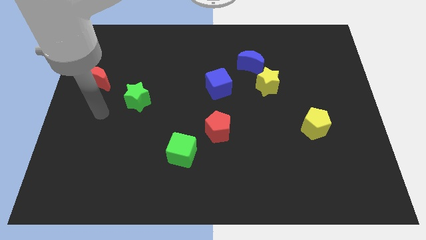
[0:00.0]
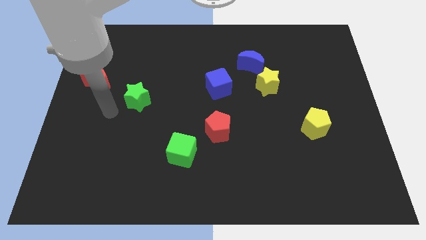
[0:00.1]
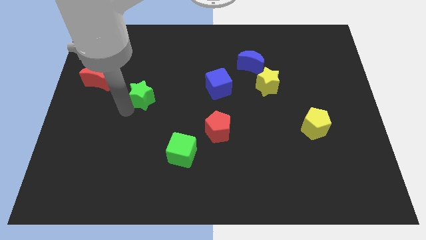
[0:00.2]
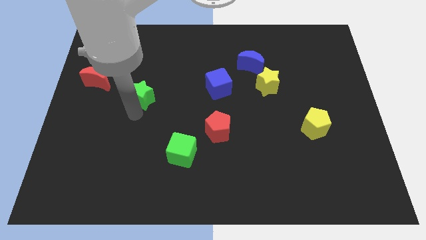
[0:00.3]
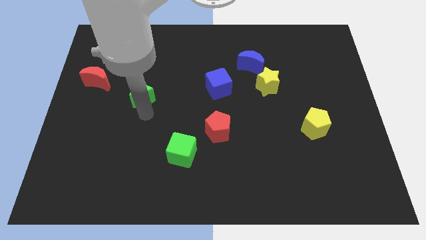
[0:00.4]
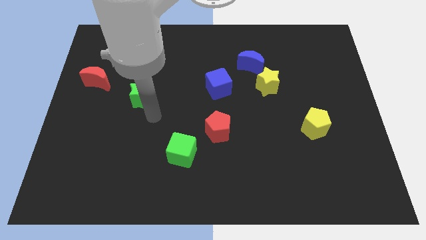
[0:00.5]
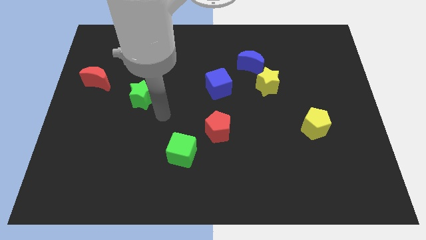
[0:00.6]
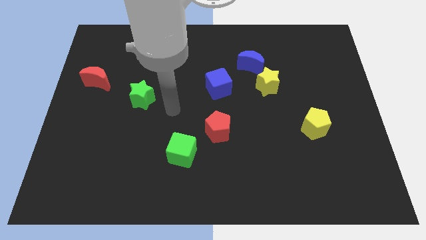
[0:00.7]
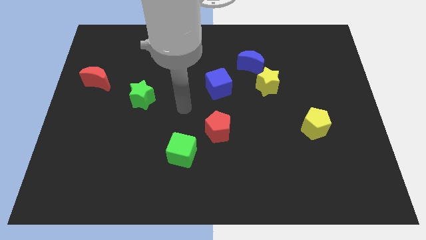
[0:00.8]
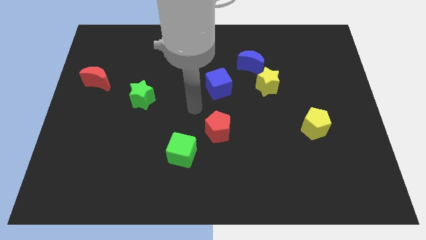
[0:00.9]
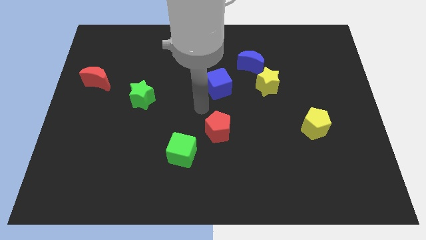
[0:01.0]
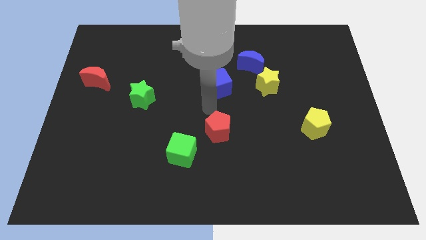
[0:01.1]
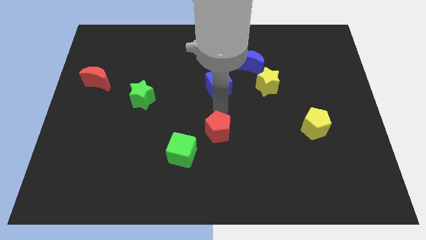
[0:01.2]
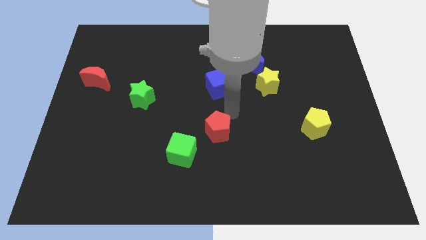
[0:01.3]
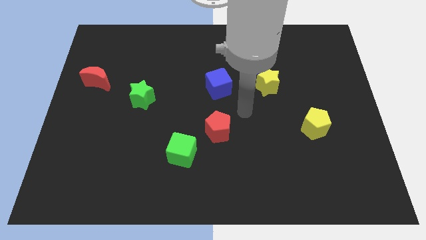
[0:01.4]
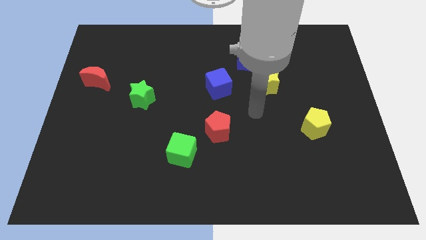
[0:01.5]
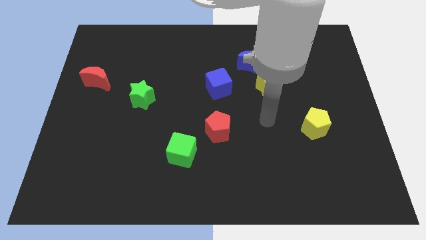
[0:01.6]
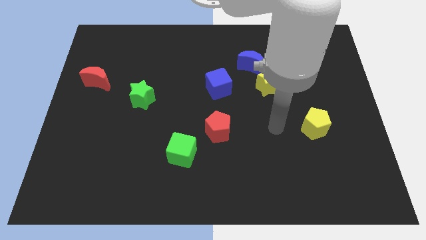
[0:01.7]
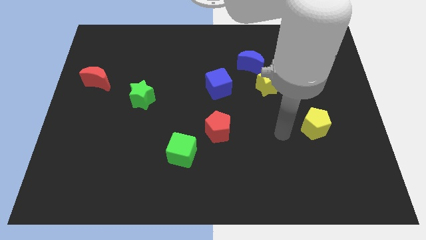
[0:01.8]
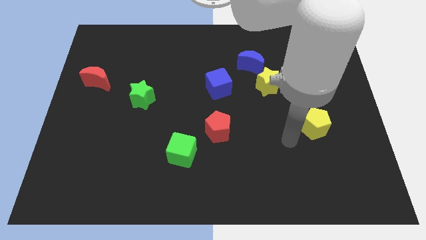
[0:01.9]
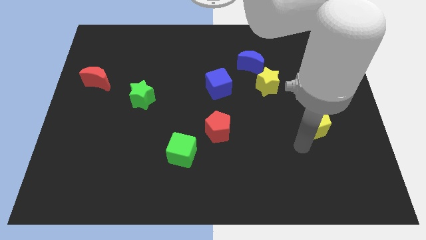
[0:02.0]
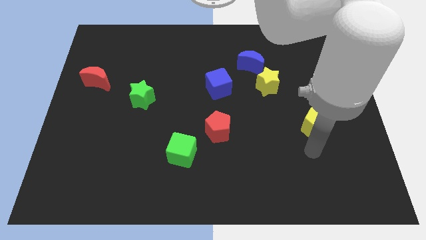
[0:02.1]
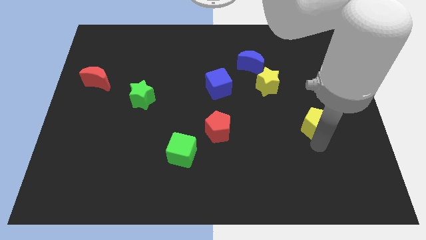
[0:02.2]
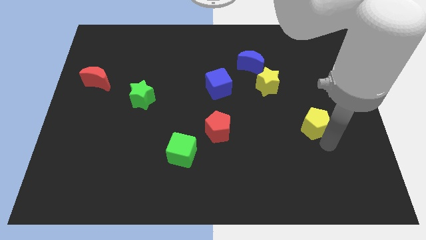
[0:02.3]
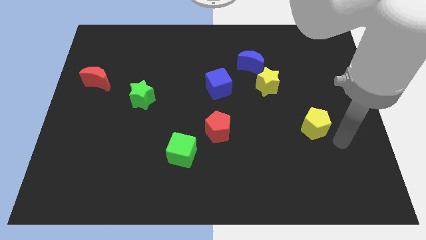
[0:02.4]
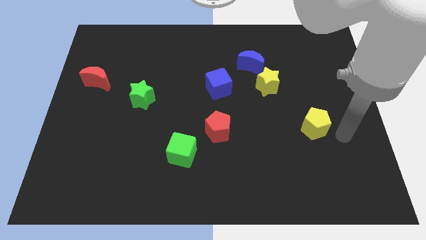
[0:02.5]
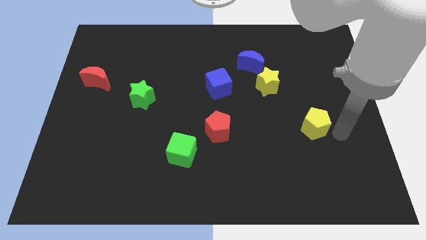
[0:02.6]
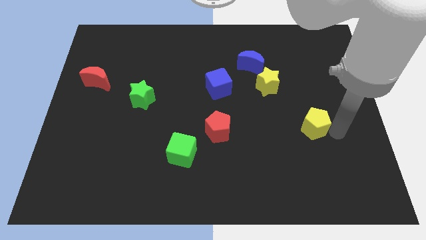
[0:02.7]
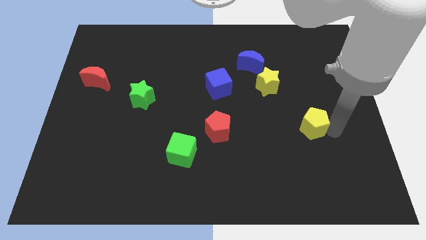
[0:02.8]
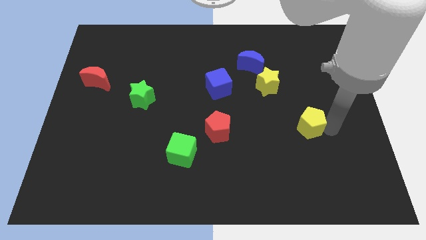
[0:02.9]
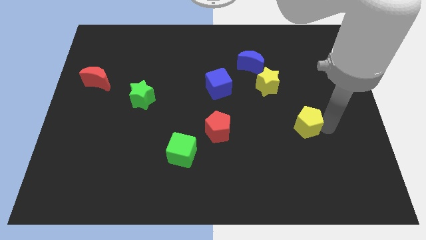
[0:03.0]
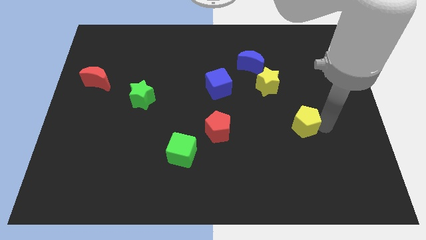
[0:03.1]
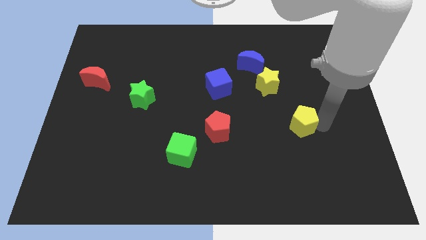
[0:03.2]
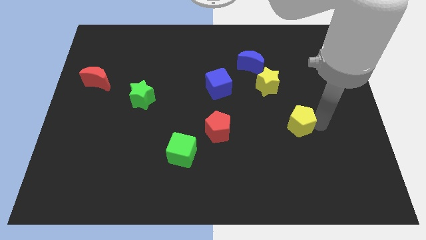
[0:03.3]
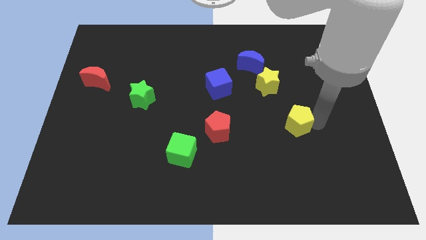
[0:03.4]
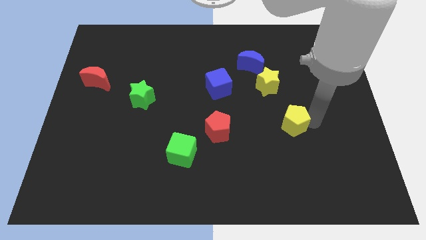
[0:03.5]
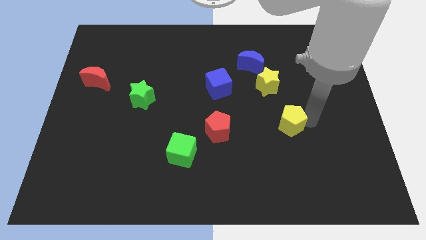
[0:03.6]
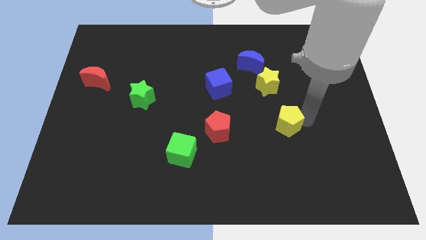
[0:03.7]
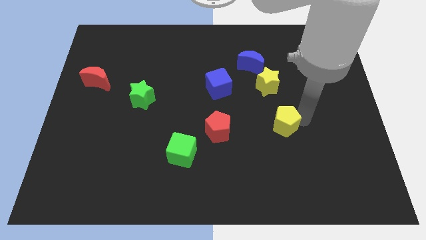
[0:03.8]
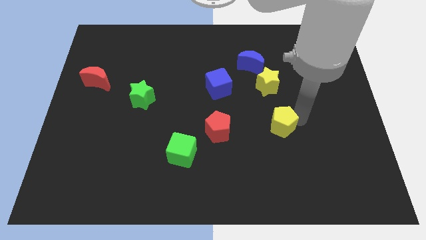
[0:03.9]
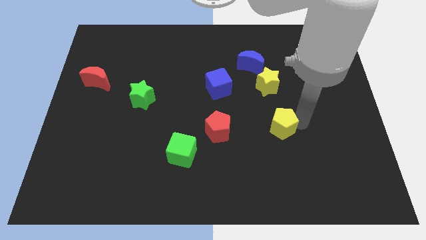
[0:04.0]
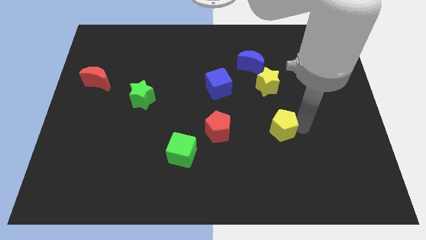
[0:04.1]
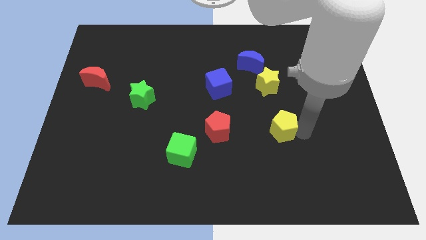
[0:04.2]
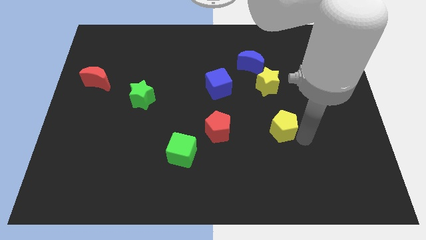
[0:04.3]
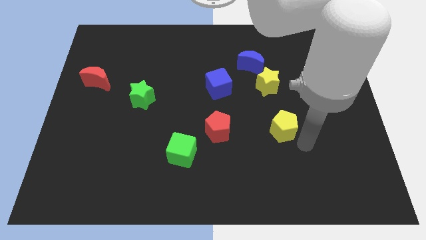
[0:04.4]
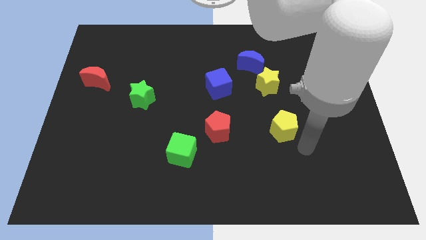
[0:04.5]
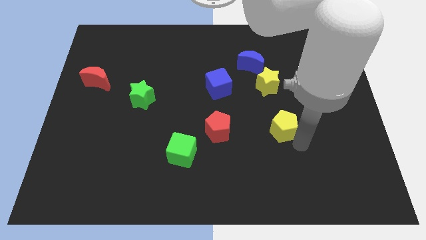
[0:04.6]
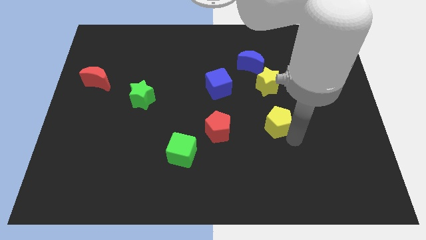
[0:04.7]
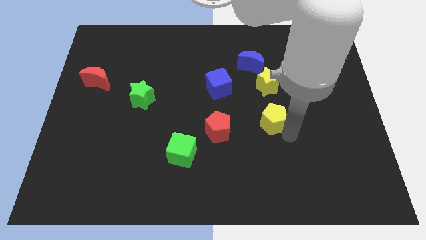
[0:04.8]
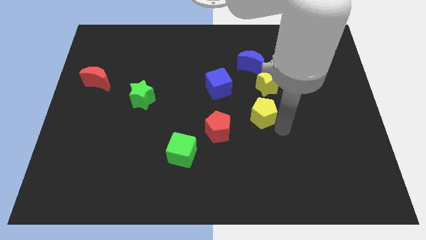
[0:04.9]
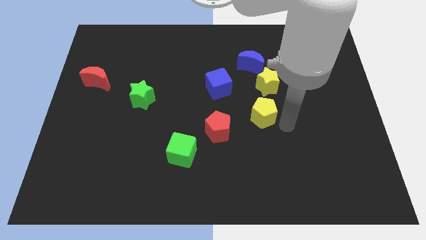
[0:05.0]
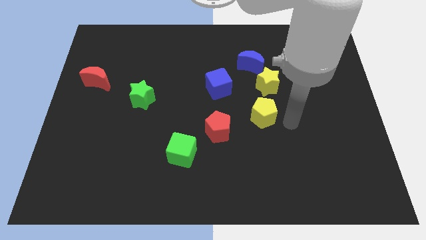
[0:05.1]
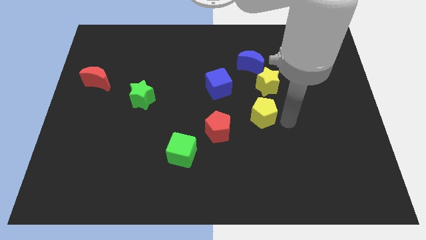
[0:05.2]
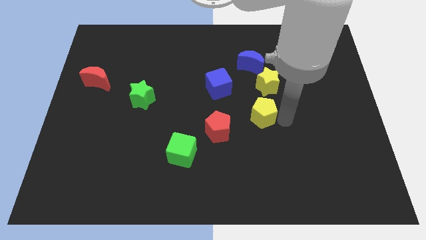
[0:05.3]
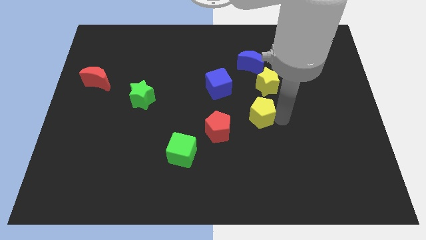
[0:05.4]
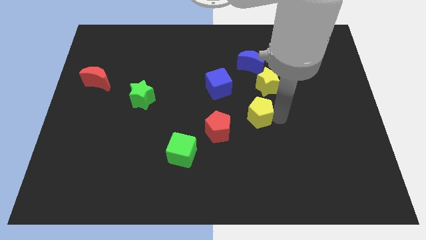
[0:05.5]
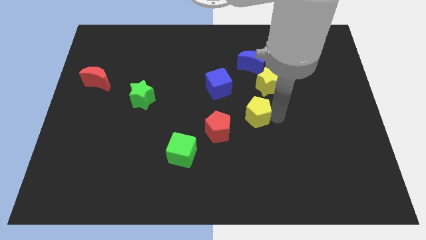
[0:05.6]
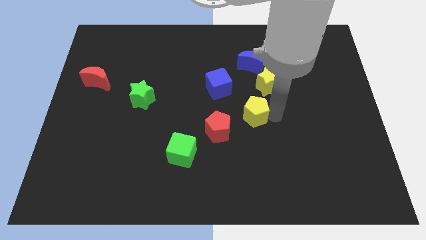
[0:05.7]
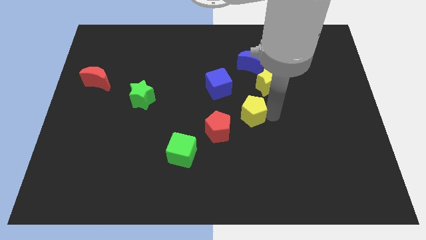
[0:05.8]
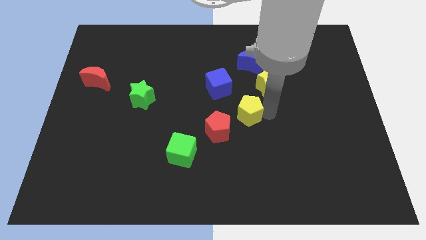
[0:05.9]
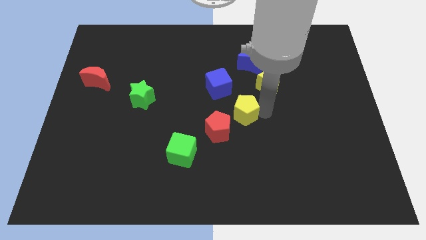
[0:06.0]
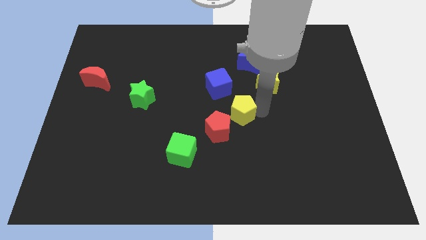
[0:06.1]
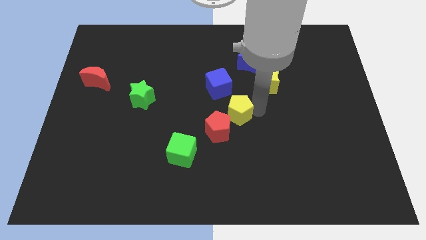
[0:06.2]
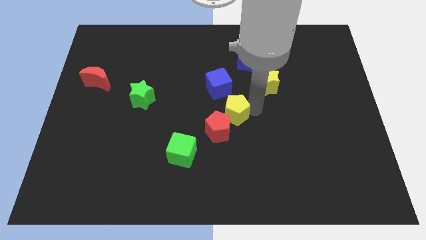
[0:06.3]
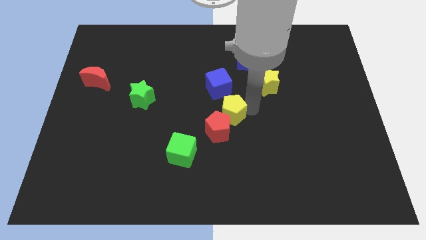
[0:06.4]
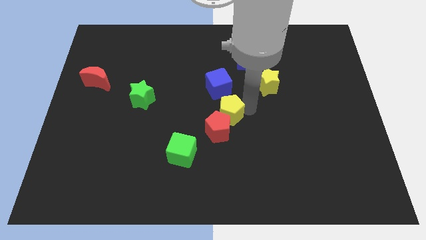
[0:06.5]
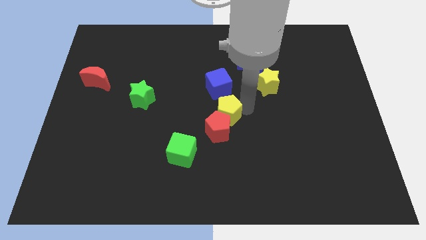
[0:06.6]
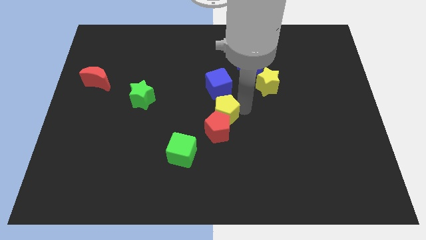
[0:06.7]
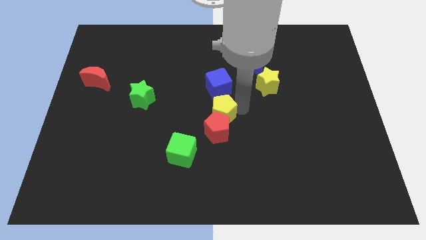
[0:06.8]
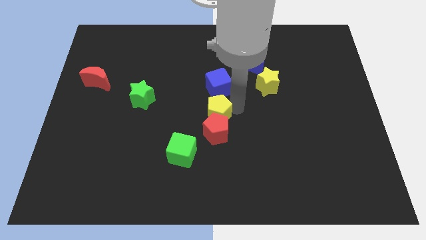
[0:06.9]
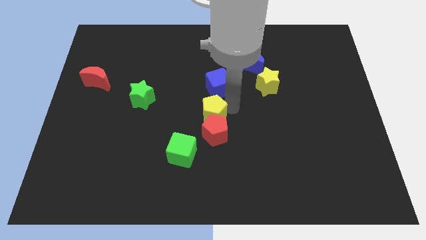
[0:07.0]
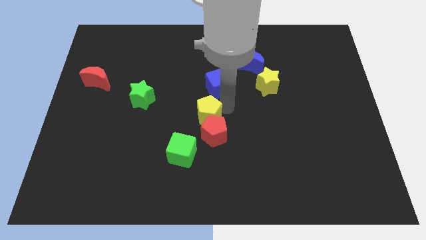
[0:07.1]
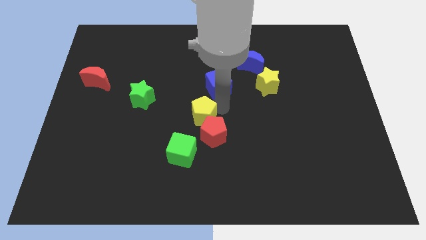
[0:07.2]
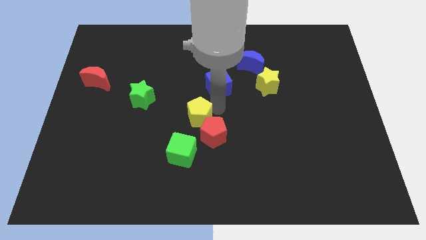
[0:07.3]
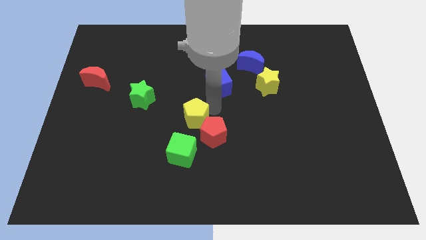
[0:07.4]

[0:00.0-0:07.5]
slide the yellow pentagon to the left of the red pentagon
